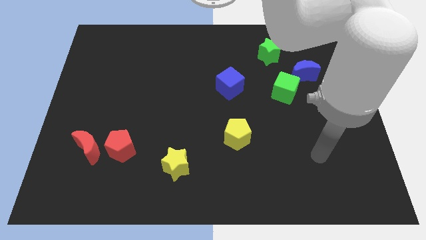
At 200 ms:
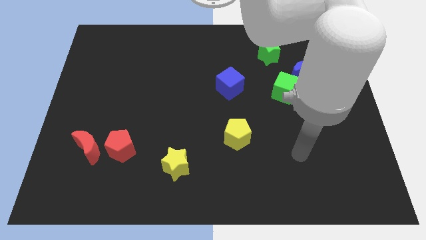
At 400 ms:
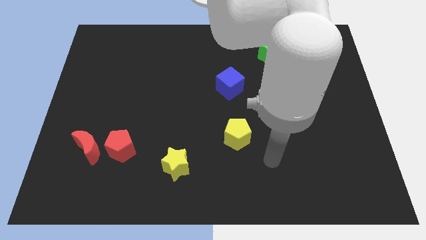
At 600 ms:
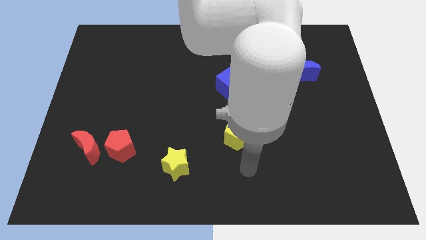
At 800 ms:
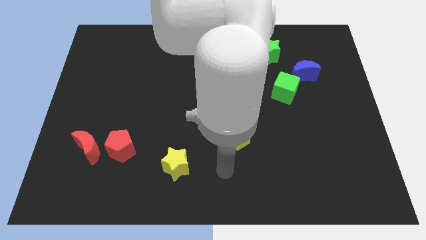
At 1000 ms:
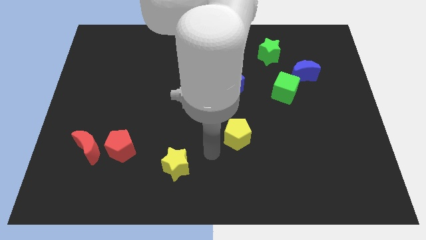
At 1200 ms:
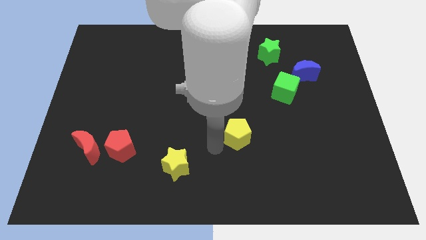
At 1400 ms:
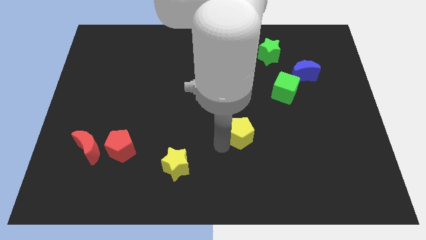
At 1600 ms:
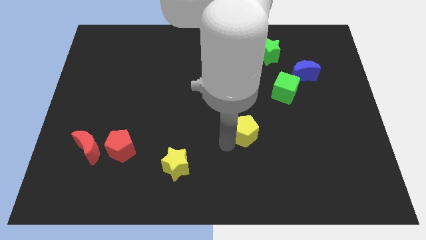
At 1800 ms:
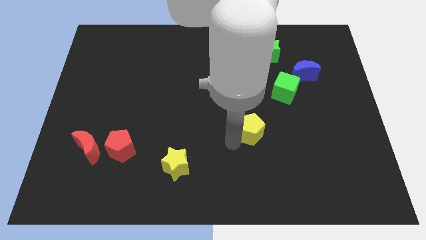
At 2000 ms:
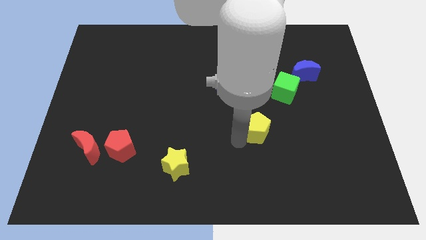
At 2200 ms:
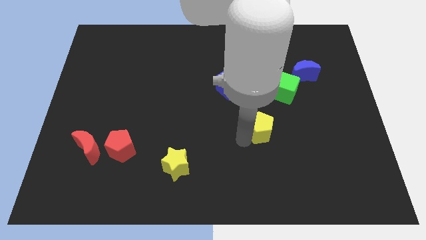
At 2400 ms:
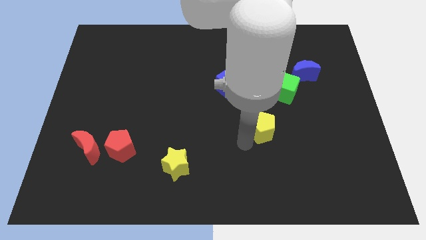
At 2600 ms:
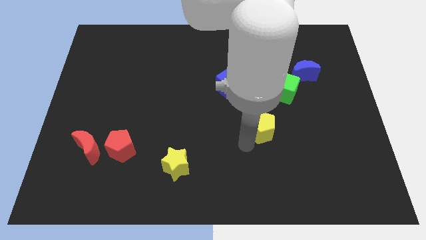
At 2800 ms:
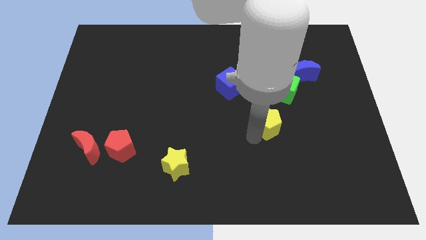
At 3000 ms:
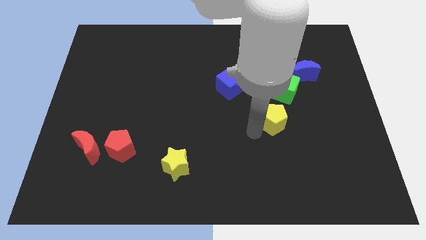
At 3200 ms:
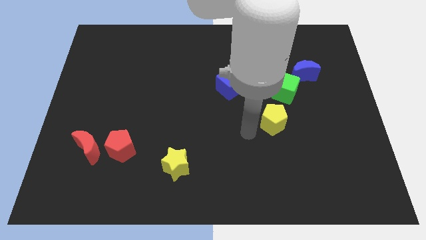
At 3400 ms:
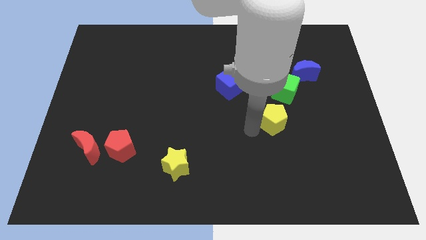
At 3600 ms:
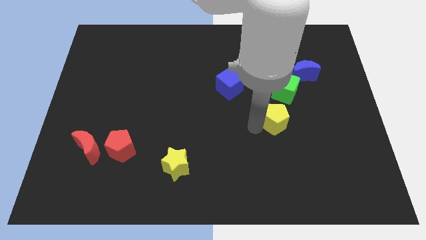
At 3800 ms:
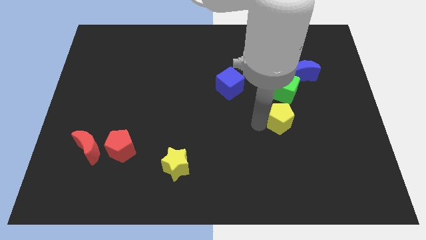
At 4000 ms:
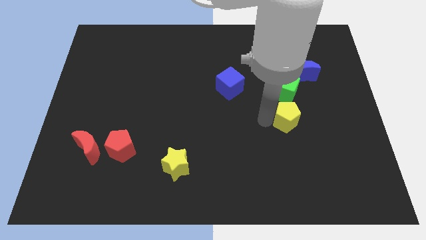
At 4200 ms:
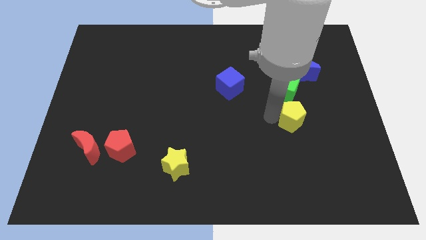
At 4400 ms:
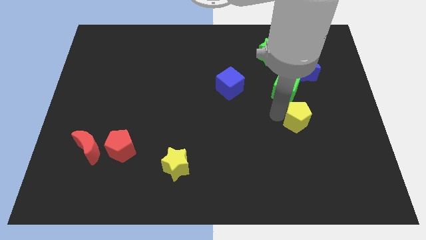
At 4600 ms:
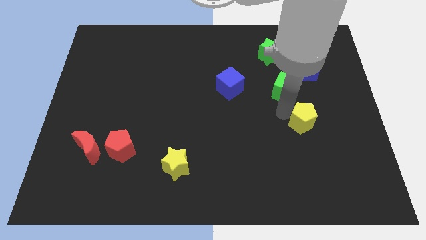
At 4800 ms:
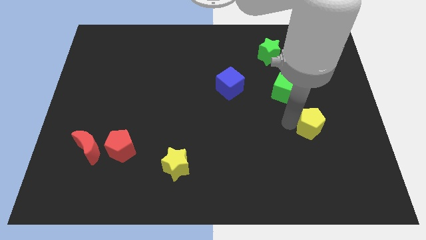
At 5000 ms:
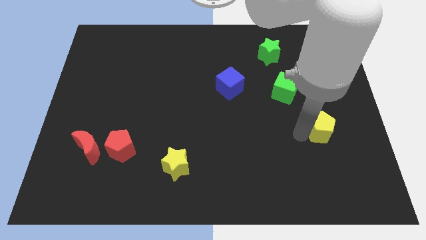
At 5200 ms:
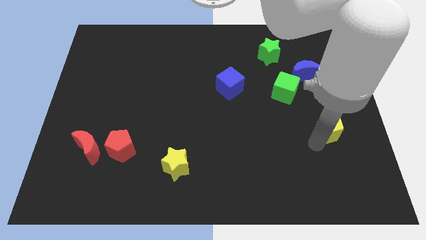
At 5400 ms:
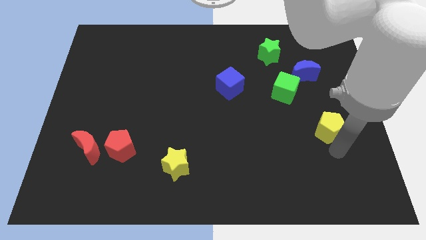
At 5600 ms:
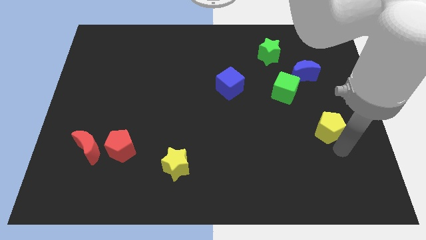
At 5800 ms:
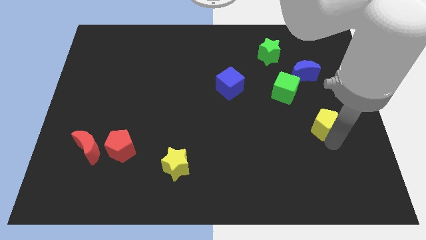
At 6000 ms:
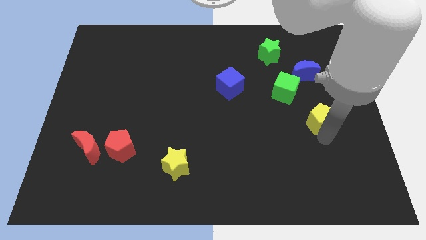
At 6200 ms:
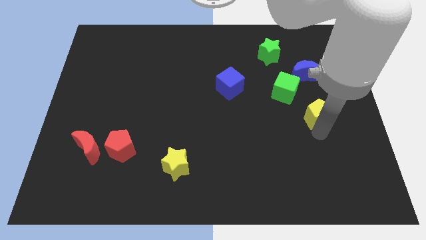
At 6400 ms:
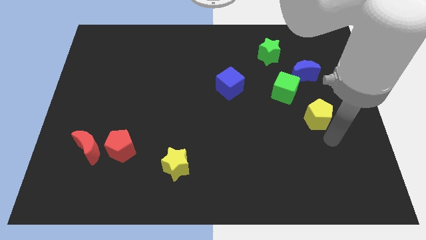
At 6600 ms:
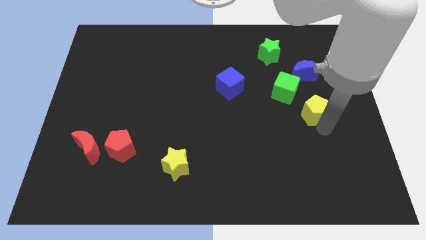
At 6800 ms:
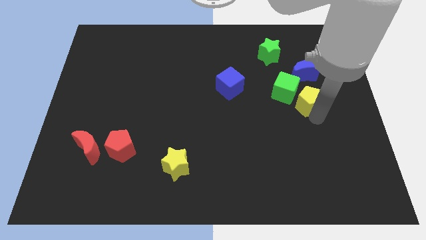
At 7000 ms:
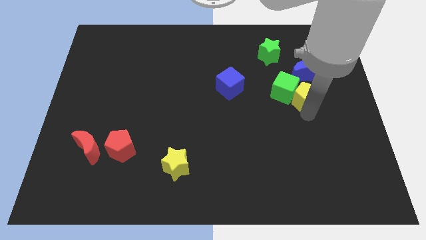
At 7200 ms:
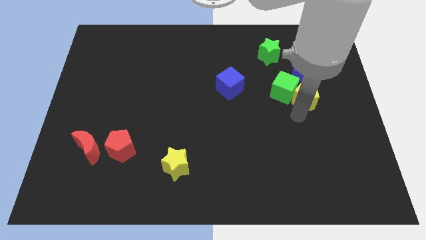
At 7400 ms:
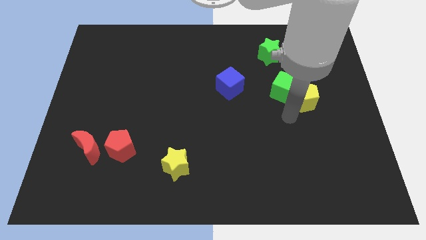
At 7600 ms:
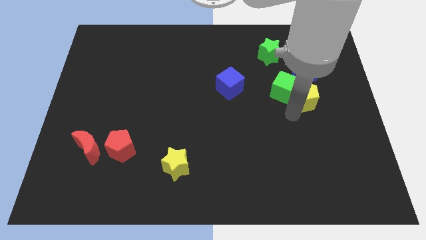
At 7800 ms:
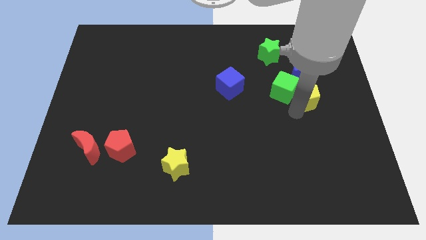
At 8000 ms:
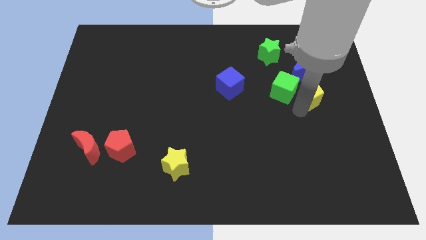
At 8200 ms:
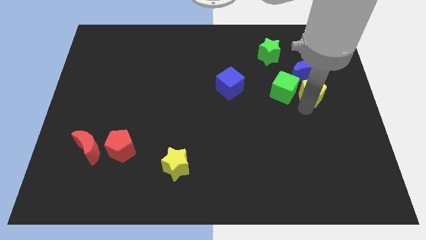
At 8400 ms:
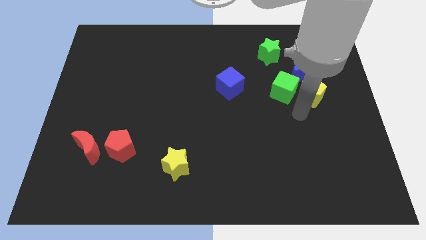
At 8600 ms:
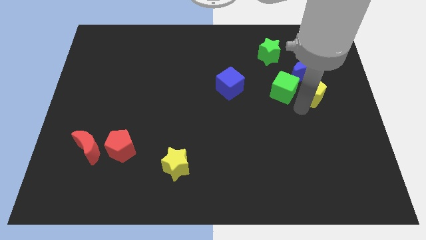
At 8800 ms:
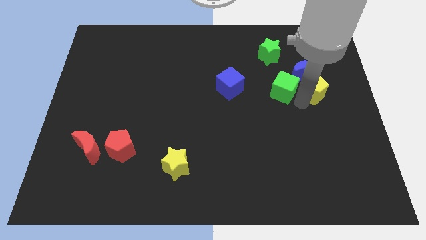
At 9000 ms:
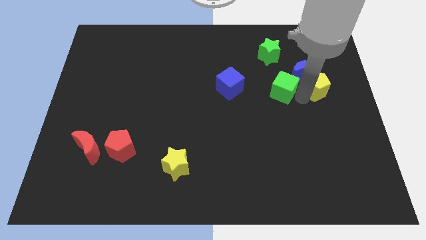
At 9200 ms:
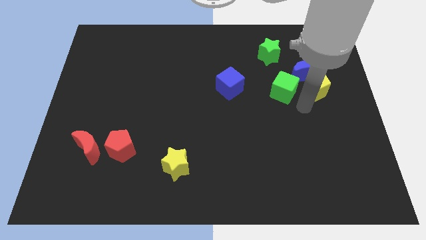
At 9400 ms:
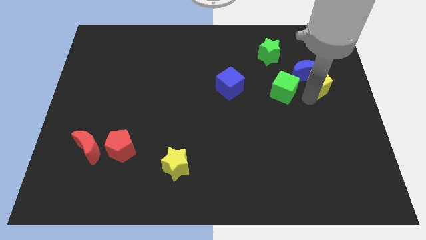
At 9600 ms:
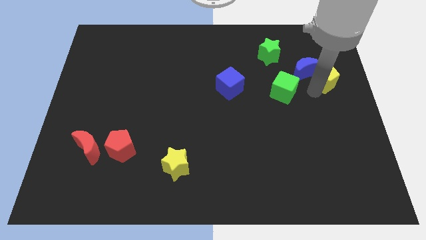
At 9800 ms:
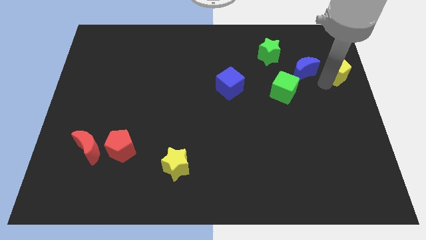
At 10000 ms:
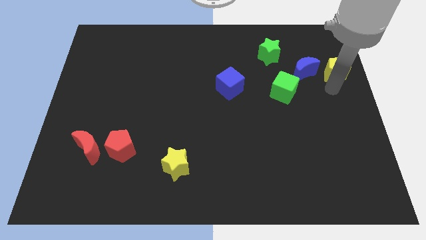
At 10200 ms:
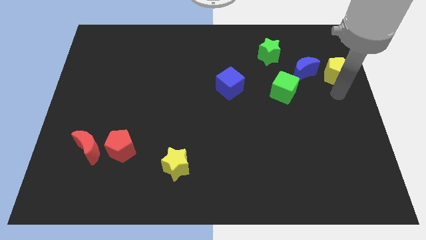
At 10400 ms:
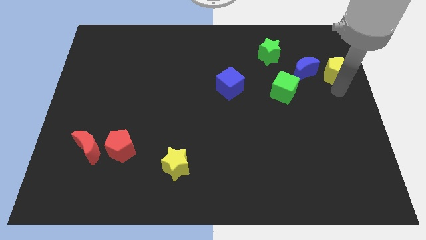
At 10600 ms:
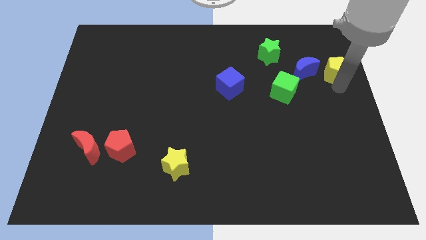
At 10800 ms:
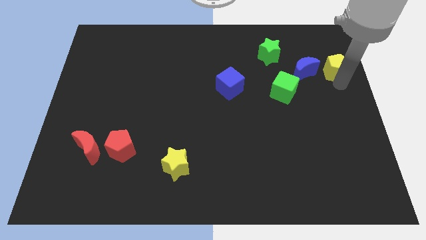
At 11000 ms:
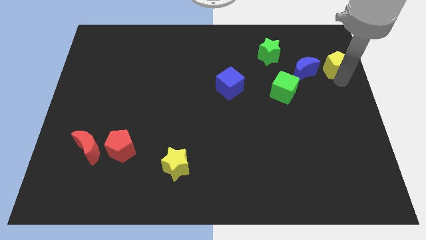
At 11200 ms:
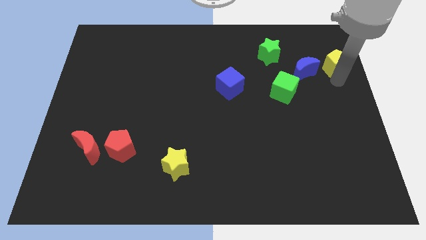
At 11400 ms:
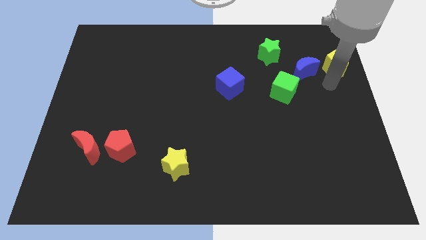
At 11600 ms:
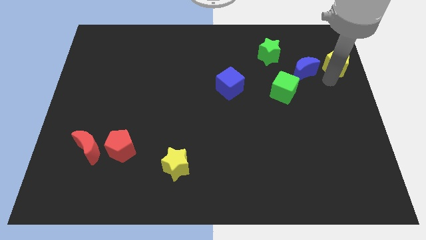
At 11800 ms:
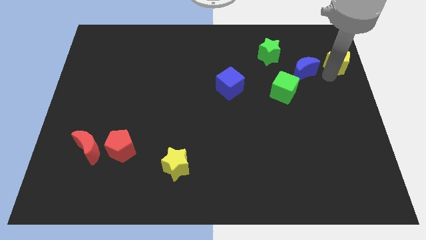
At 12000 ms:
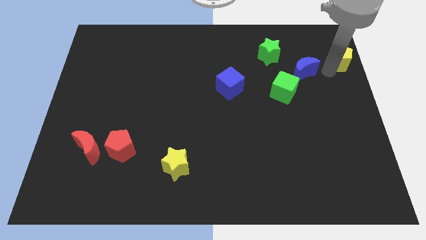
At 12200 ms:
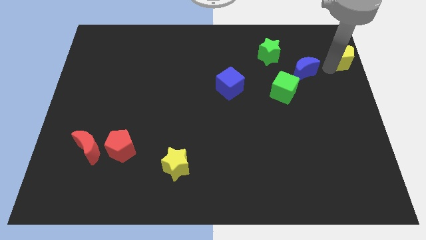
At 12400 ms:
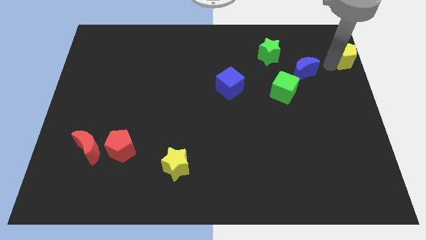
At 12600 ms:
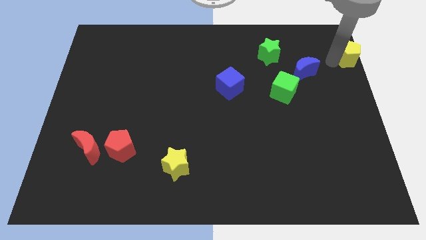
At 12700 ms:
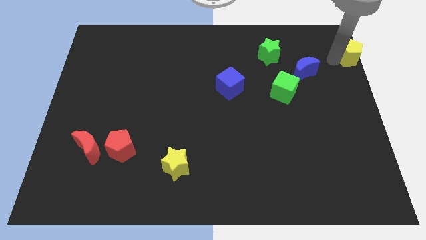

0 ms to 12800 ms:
slide the yellow pentagon to the top right of the board
